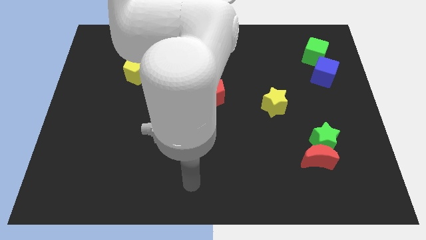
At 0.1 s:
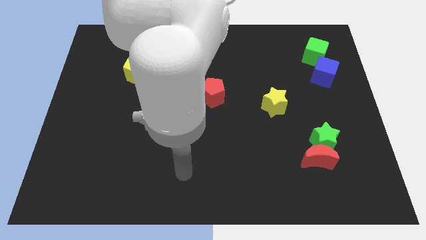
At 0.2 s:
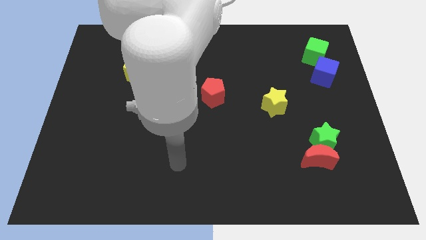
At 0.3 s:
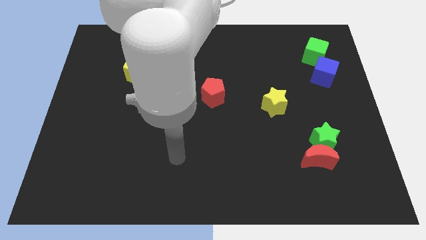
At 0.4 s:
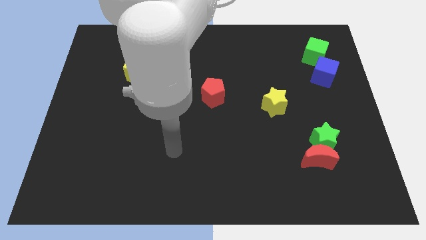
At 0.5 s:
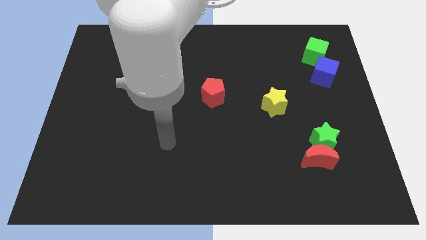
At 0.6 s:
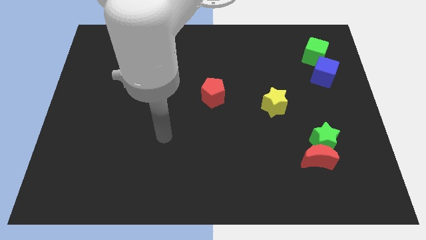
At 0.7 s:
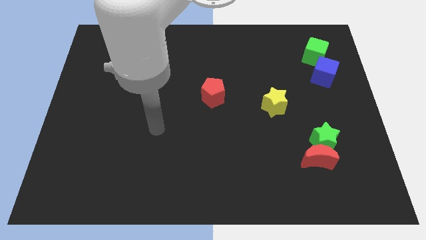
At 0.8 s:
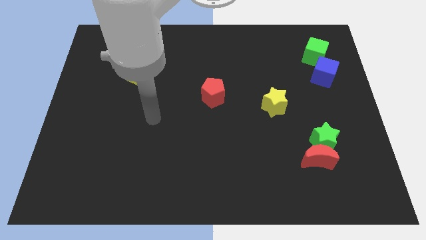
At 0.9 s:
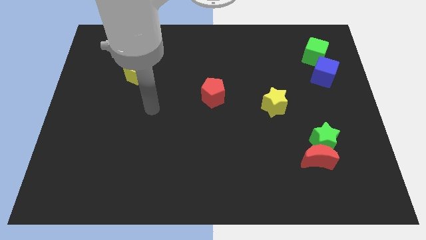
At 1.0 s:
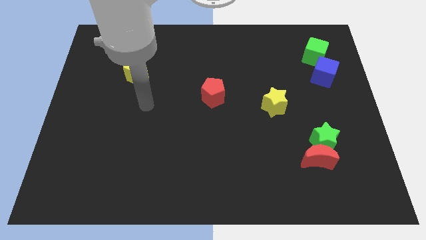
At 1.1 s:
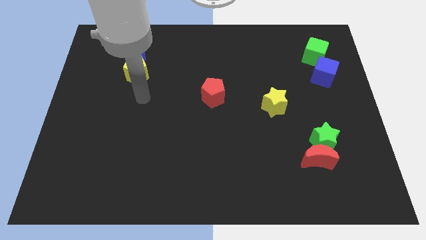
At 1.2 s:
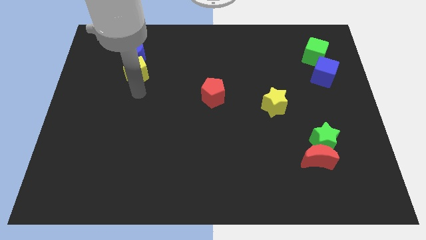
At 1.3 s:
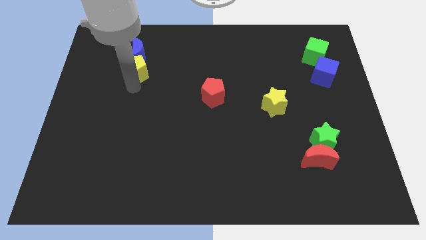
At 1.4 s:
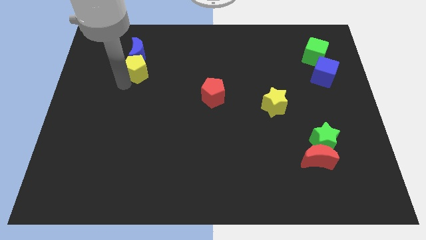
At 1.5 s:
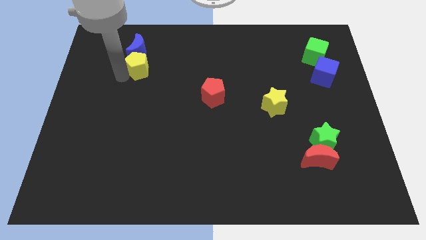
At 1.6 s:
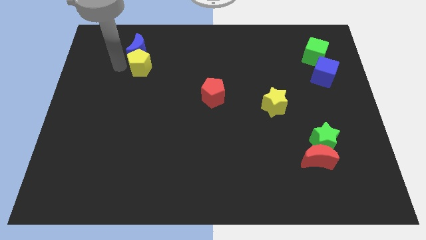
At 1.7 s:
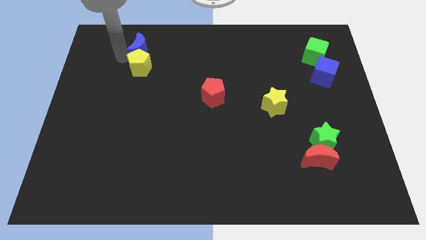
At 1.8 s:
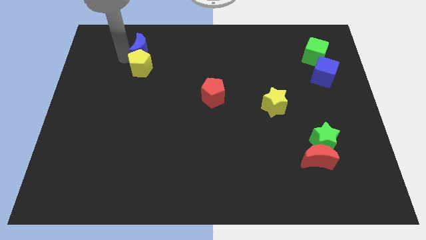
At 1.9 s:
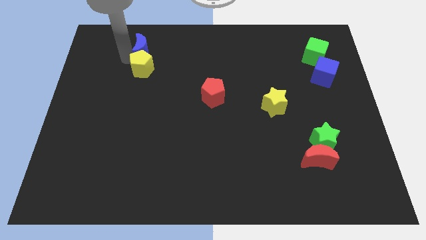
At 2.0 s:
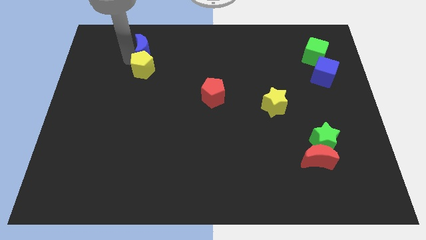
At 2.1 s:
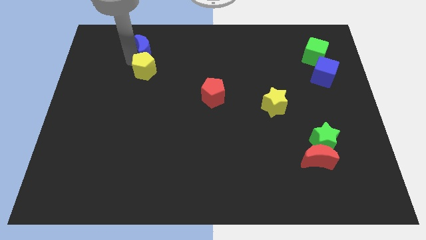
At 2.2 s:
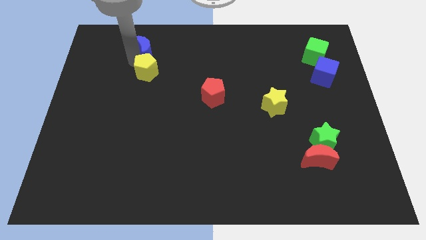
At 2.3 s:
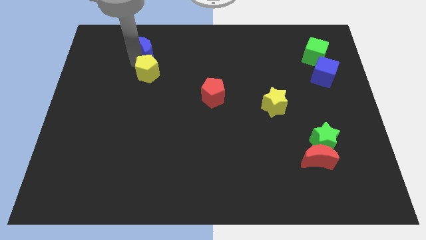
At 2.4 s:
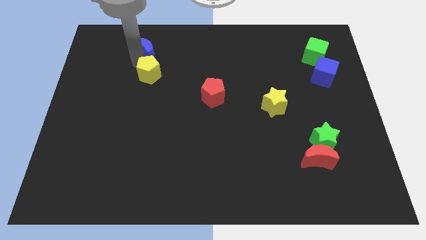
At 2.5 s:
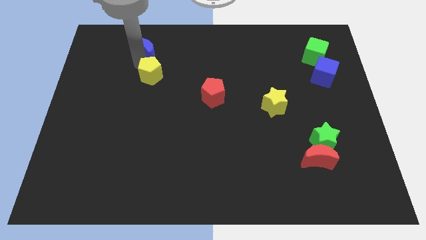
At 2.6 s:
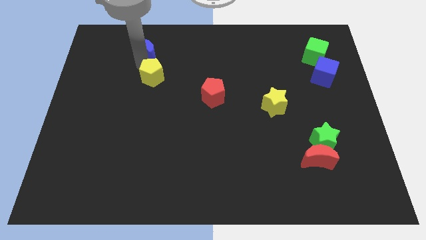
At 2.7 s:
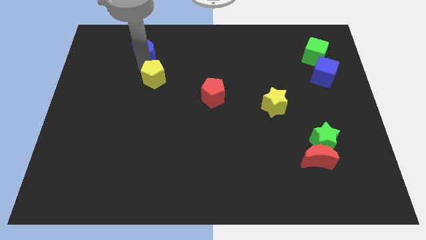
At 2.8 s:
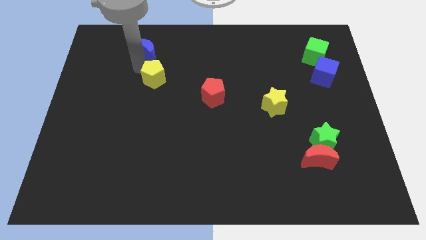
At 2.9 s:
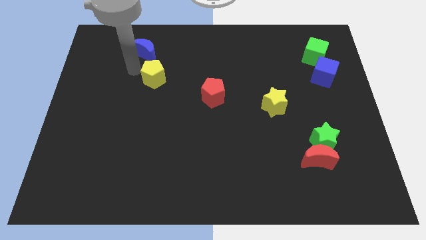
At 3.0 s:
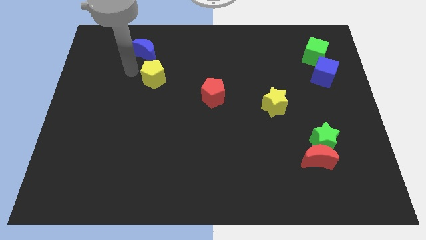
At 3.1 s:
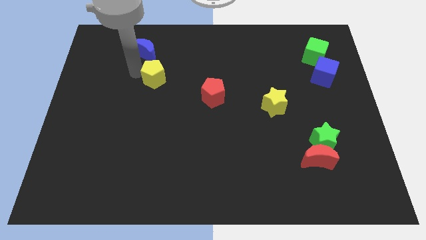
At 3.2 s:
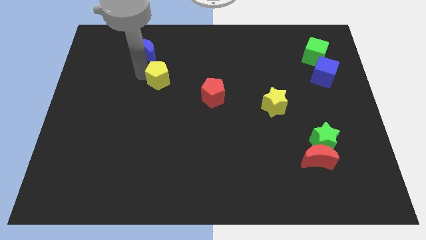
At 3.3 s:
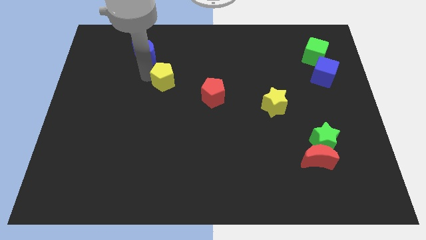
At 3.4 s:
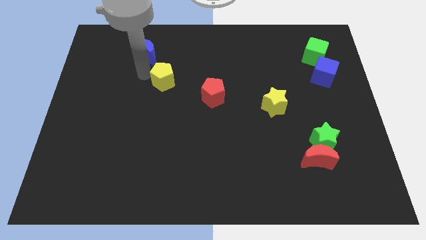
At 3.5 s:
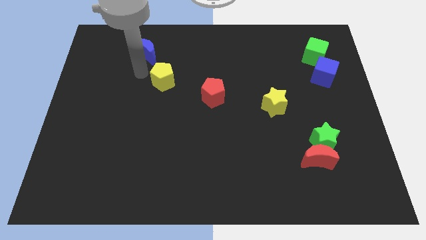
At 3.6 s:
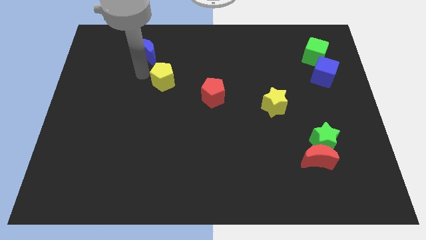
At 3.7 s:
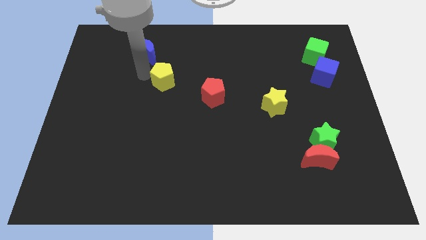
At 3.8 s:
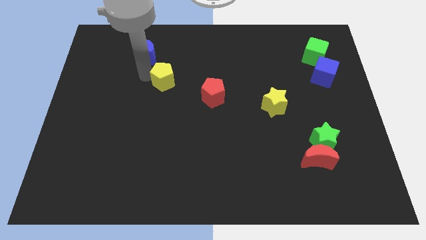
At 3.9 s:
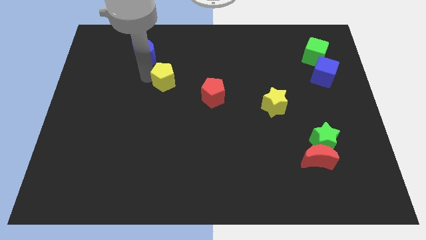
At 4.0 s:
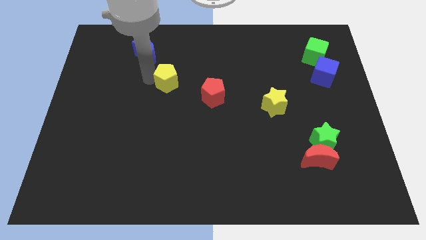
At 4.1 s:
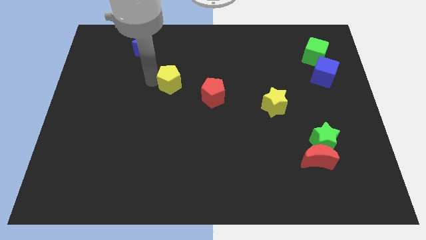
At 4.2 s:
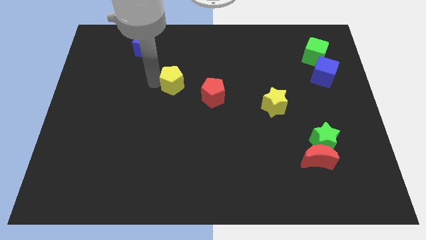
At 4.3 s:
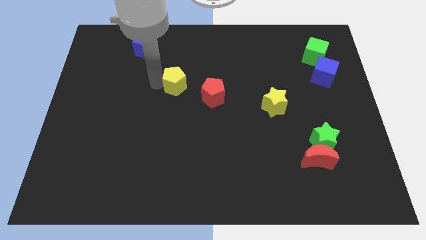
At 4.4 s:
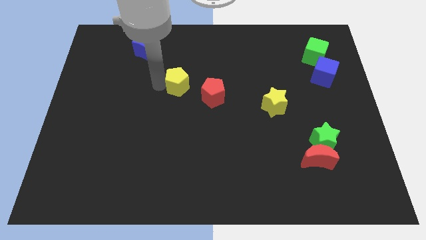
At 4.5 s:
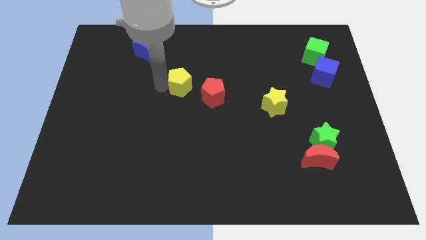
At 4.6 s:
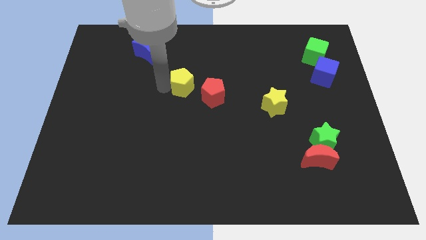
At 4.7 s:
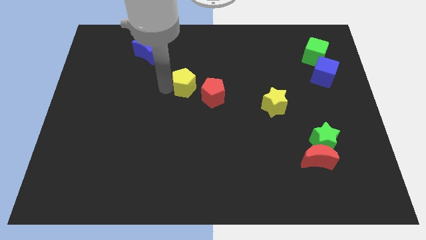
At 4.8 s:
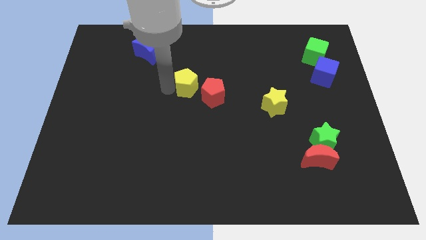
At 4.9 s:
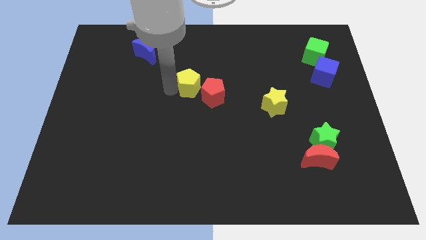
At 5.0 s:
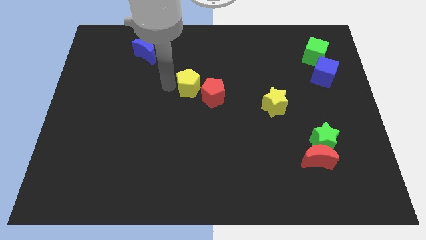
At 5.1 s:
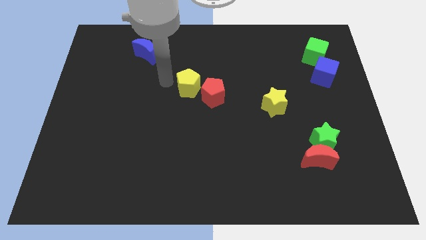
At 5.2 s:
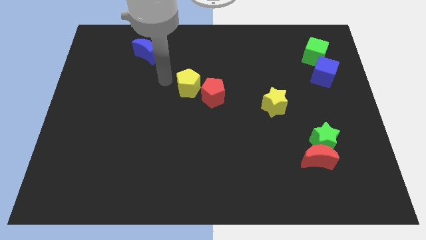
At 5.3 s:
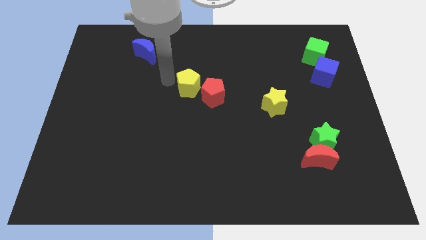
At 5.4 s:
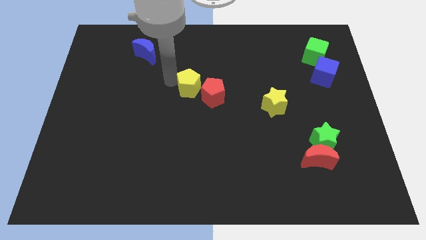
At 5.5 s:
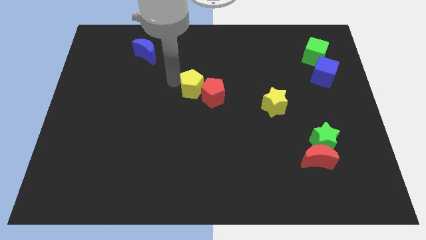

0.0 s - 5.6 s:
move the yellow pentagon towards the red pentagon

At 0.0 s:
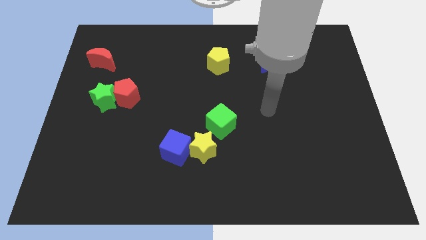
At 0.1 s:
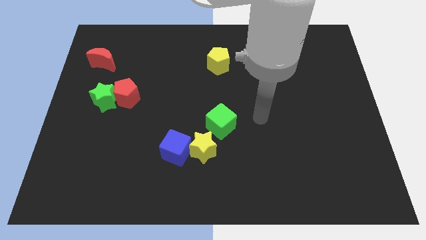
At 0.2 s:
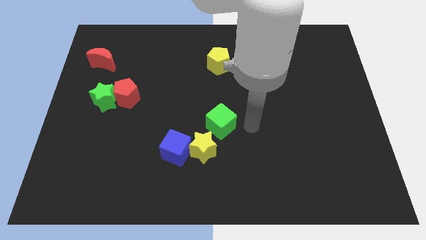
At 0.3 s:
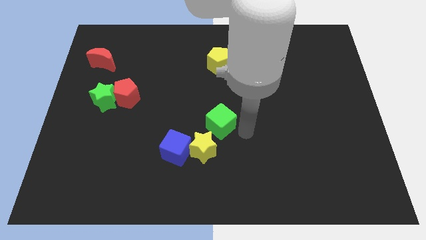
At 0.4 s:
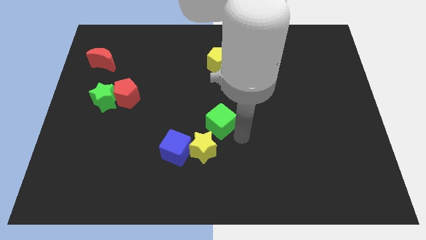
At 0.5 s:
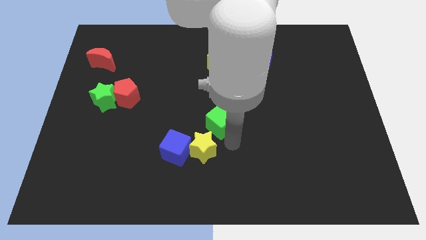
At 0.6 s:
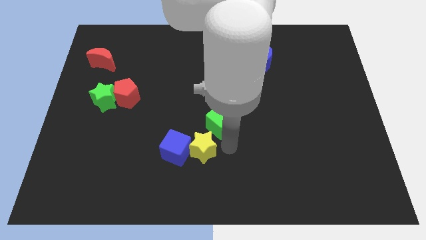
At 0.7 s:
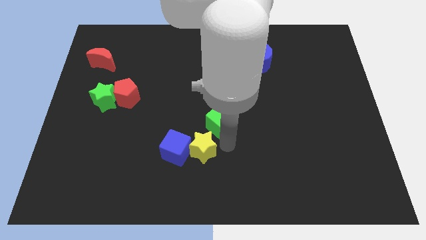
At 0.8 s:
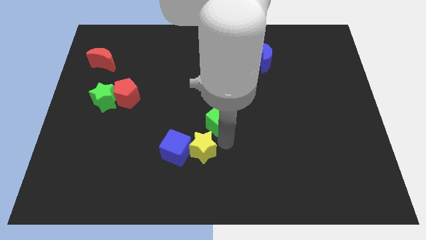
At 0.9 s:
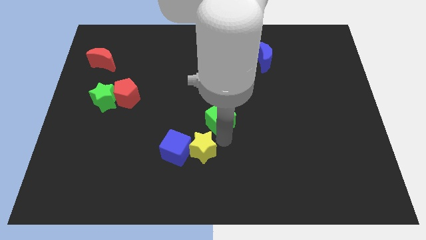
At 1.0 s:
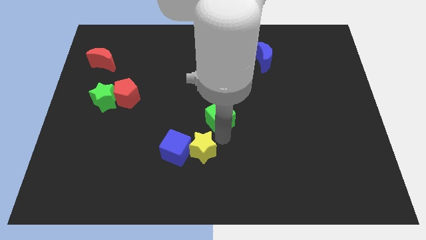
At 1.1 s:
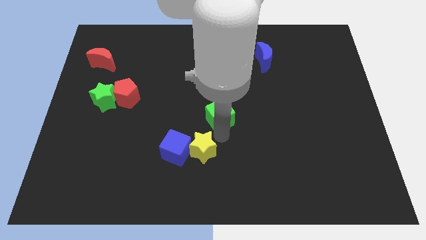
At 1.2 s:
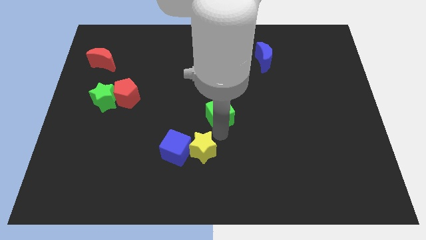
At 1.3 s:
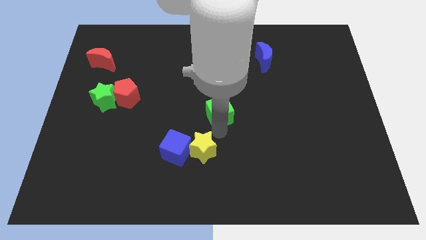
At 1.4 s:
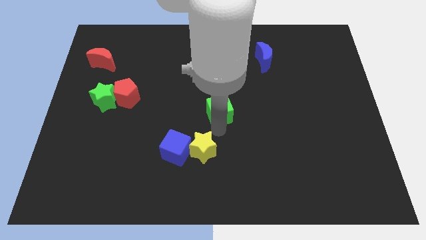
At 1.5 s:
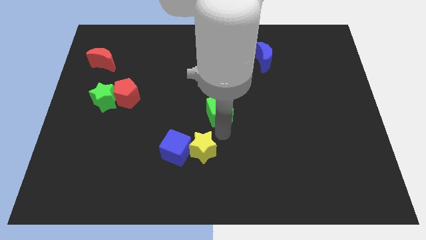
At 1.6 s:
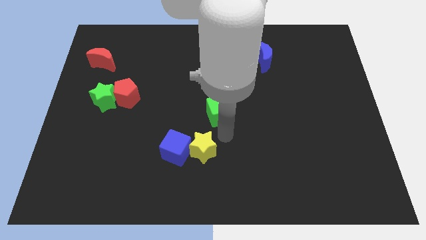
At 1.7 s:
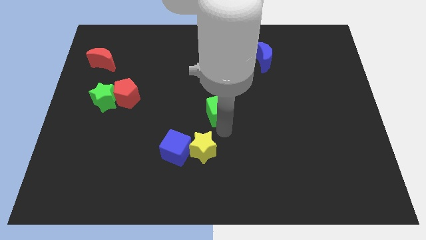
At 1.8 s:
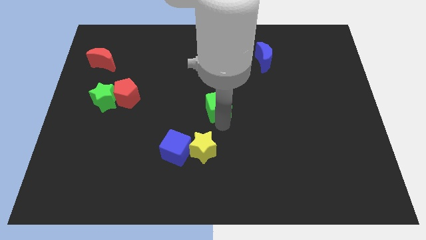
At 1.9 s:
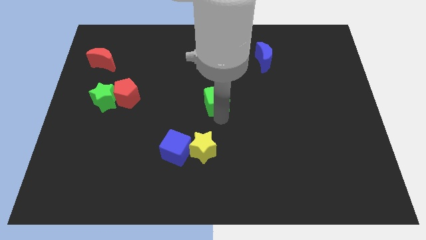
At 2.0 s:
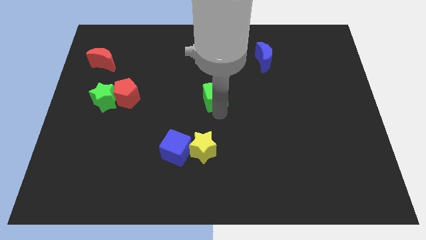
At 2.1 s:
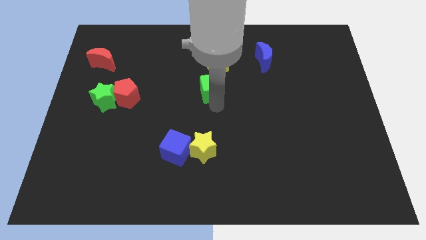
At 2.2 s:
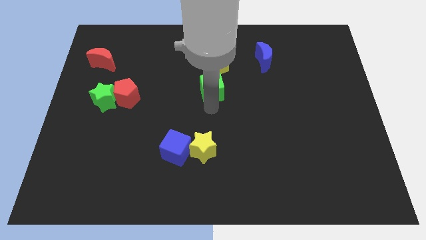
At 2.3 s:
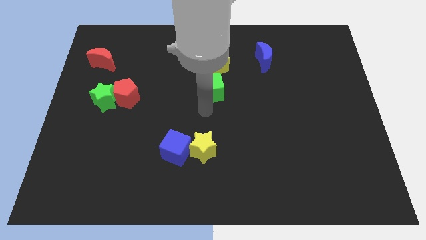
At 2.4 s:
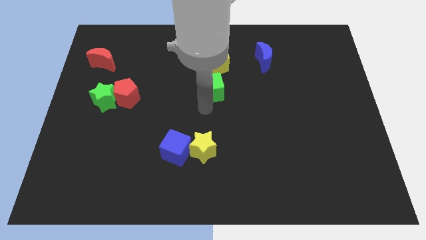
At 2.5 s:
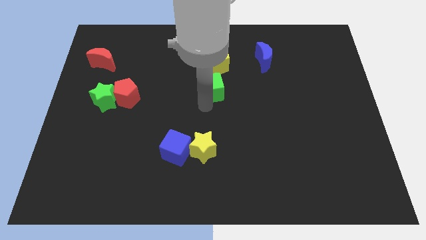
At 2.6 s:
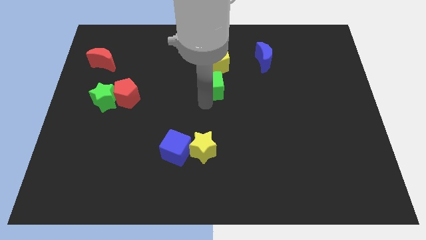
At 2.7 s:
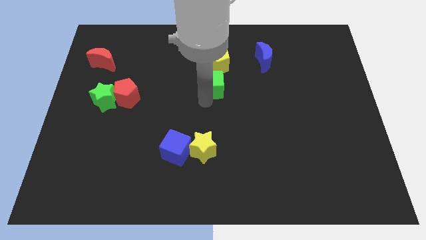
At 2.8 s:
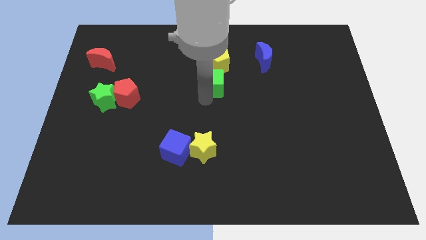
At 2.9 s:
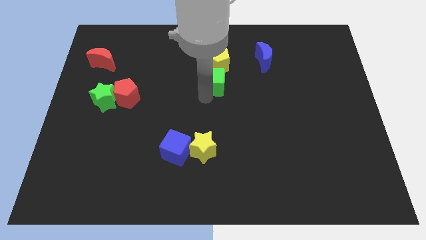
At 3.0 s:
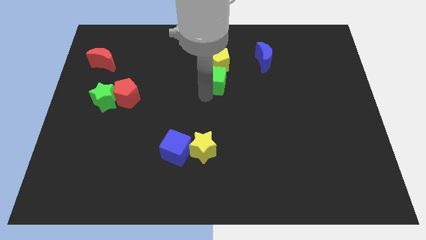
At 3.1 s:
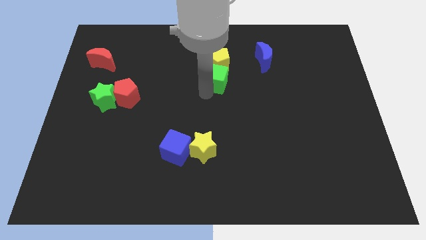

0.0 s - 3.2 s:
slide the green cube to the yellow pentagon
